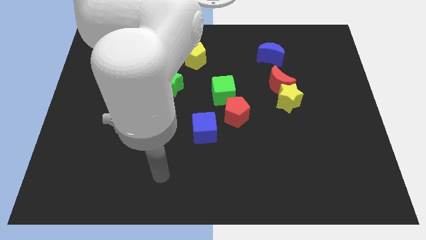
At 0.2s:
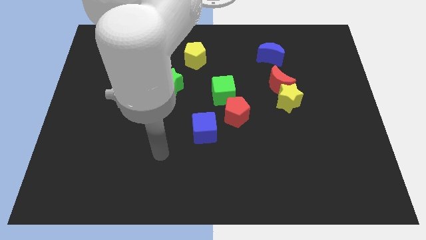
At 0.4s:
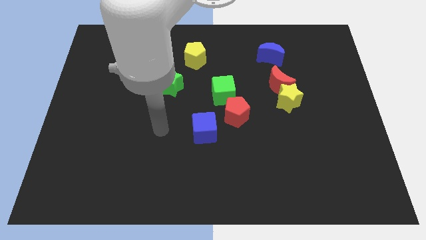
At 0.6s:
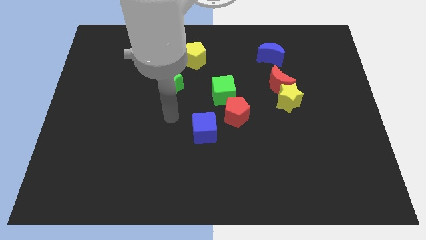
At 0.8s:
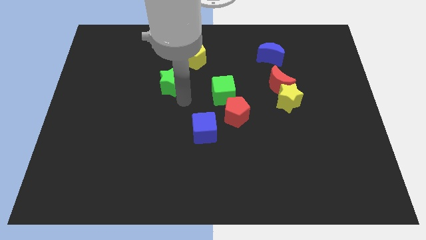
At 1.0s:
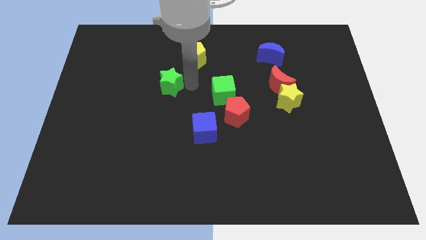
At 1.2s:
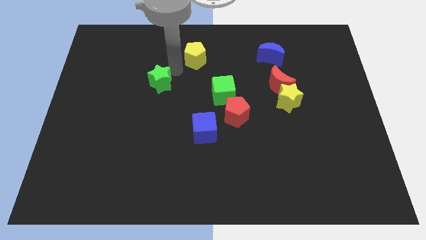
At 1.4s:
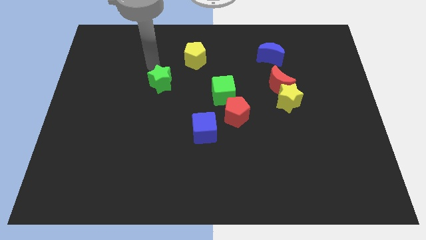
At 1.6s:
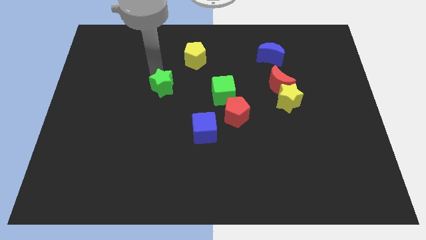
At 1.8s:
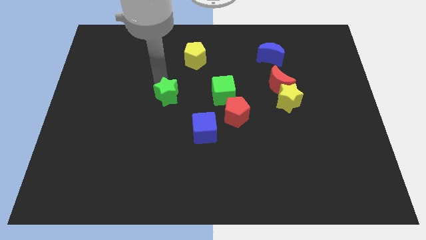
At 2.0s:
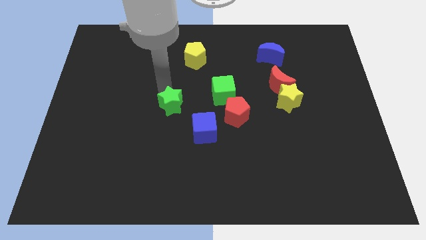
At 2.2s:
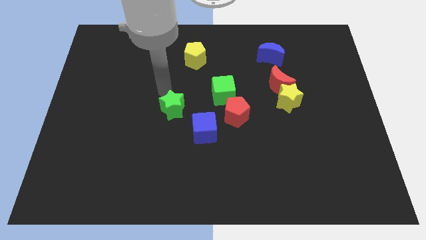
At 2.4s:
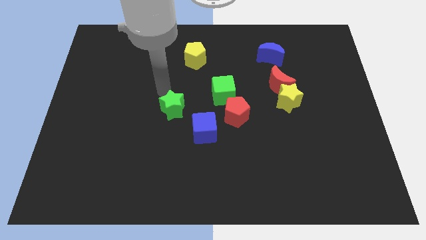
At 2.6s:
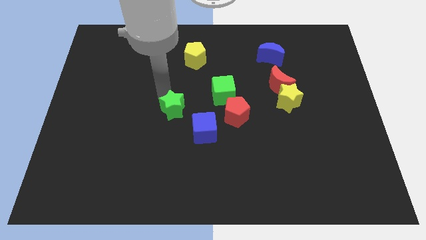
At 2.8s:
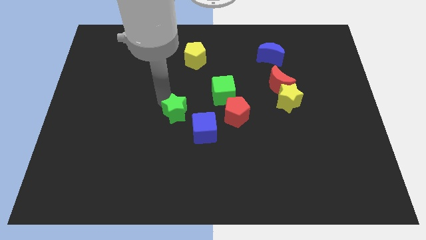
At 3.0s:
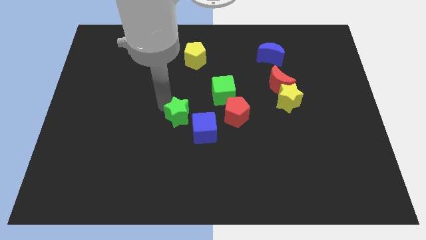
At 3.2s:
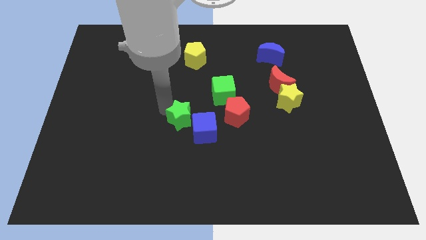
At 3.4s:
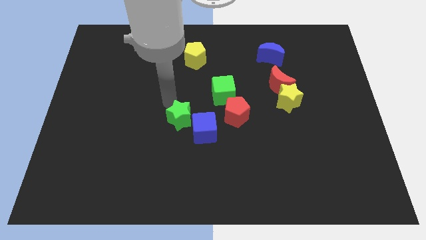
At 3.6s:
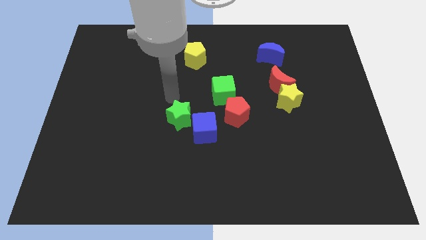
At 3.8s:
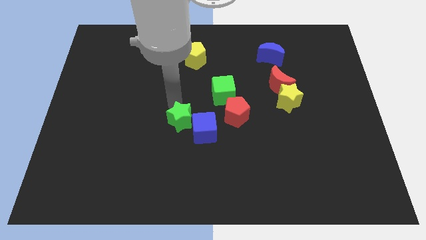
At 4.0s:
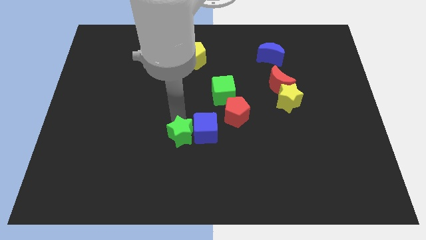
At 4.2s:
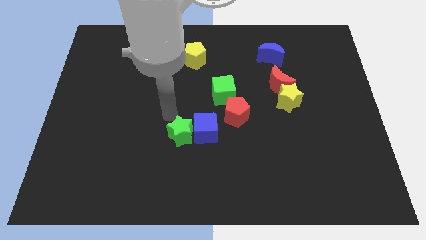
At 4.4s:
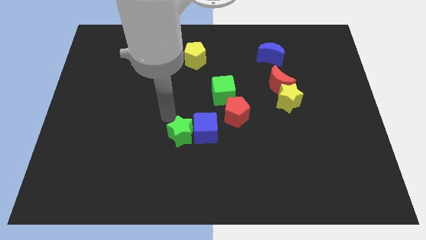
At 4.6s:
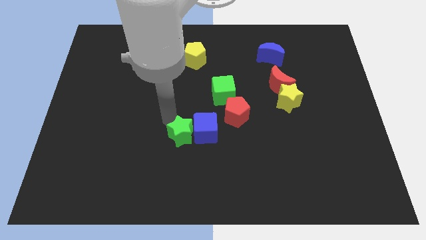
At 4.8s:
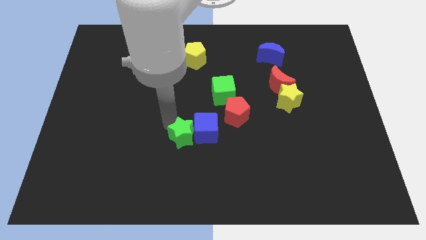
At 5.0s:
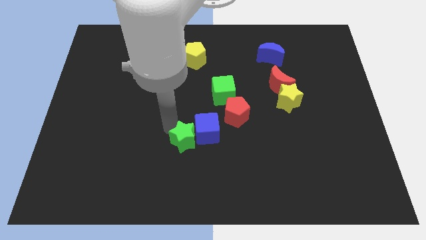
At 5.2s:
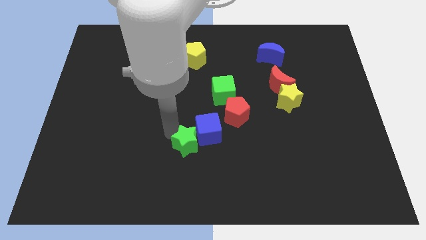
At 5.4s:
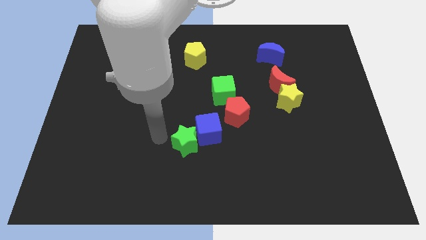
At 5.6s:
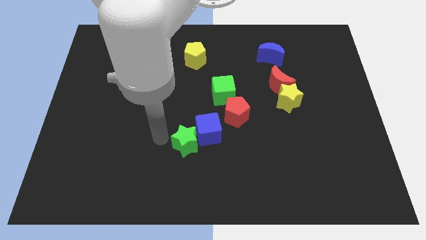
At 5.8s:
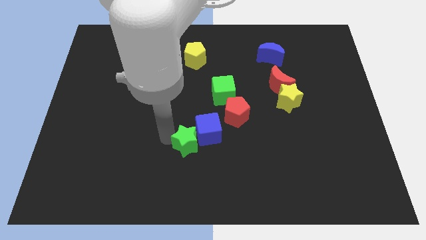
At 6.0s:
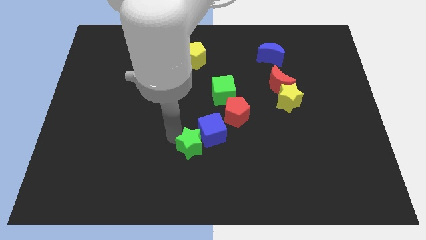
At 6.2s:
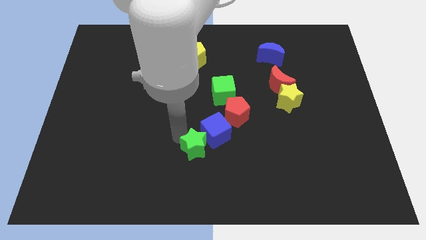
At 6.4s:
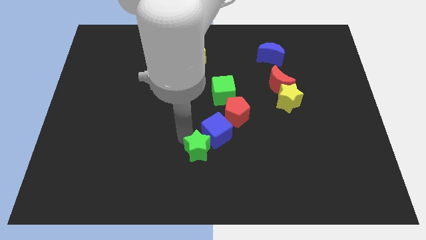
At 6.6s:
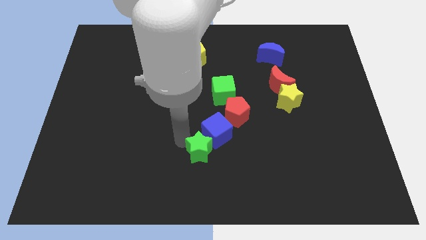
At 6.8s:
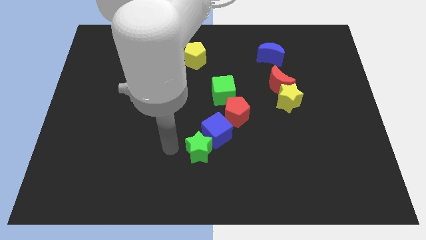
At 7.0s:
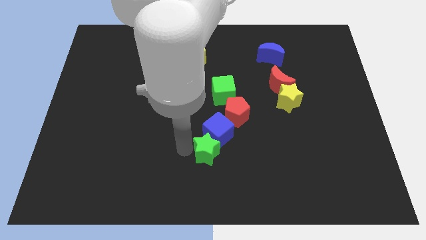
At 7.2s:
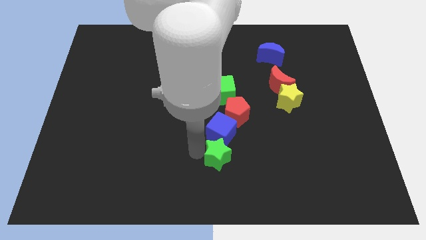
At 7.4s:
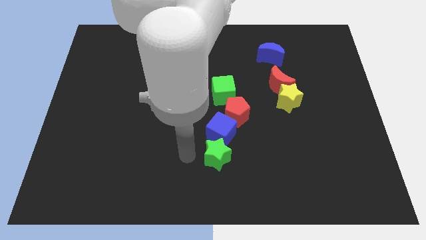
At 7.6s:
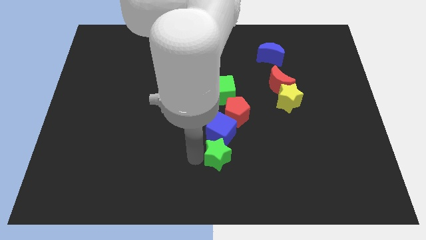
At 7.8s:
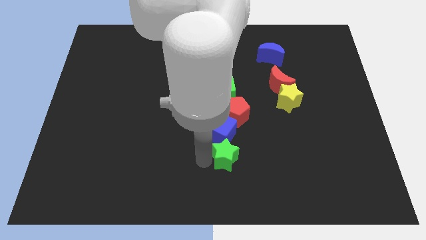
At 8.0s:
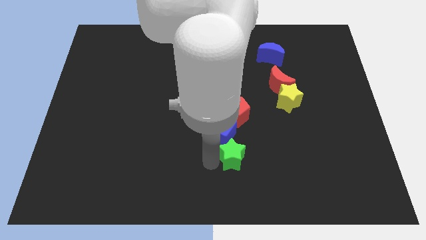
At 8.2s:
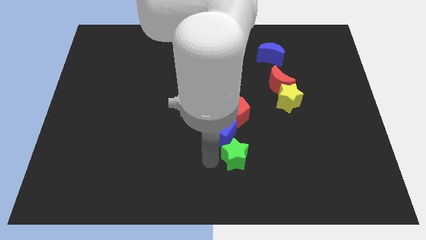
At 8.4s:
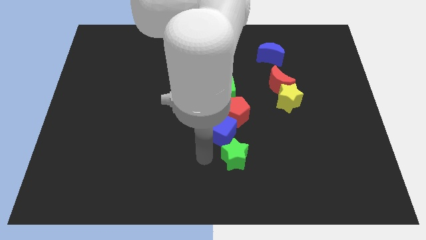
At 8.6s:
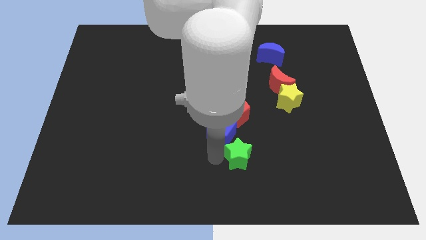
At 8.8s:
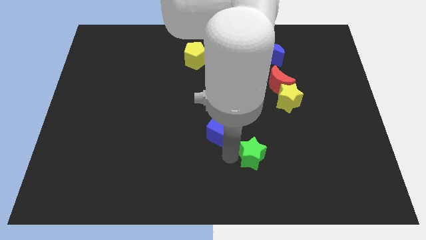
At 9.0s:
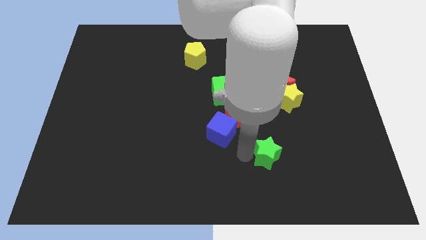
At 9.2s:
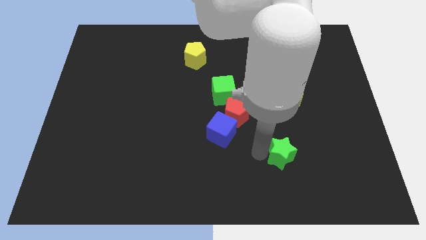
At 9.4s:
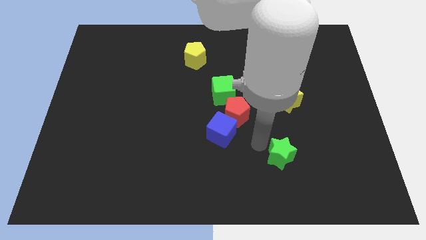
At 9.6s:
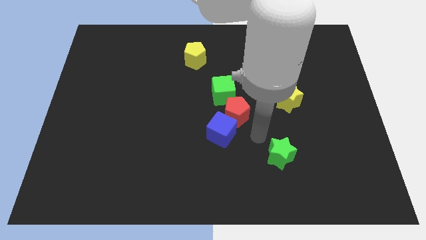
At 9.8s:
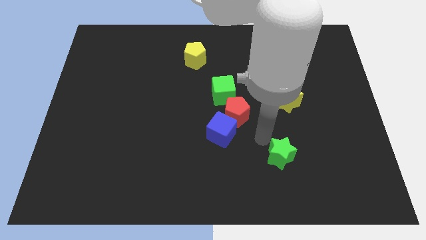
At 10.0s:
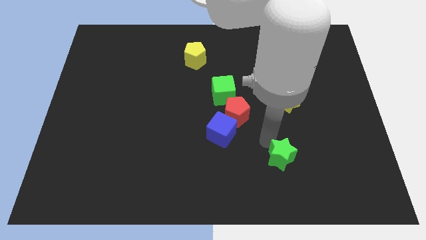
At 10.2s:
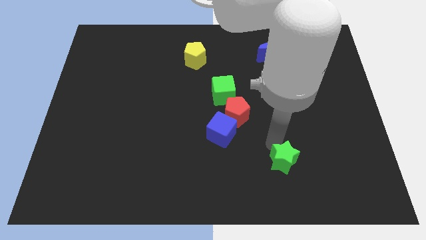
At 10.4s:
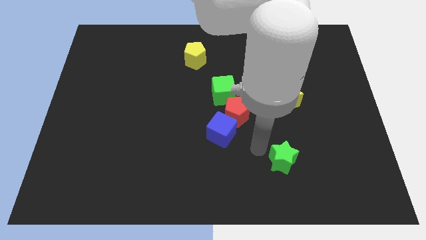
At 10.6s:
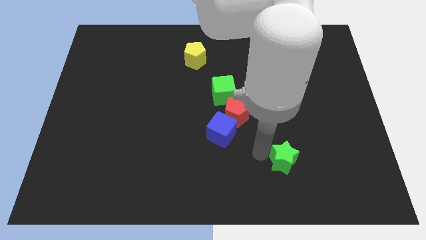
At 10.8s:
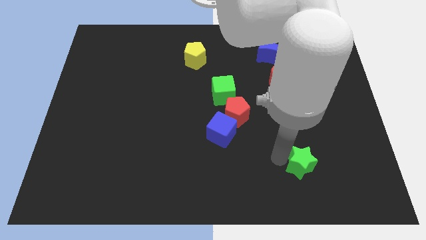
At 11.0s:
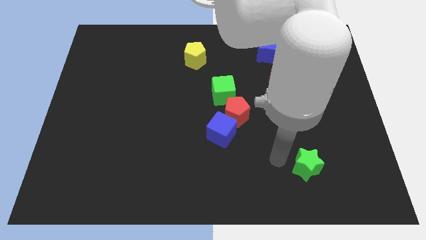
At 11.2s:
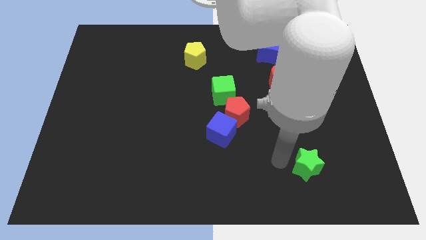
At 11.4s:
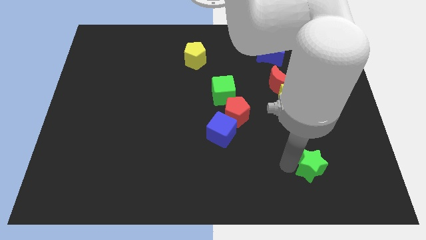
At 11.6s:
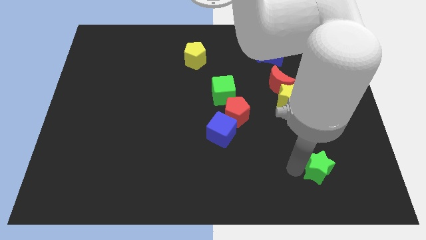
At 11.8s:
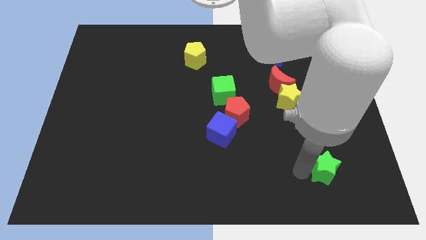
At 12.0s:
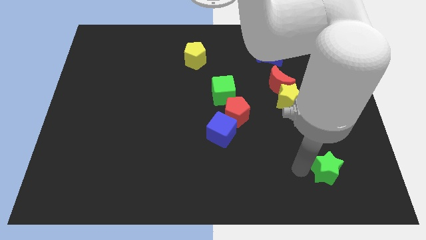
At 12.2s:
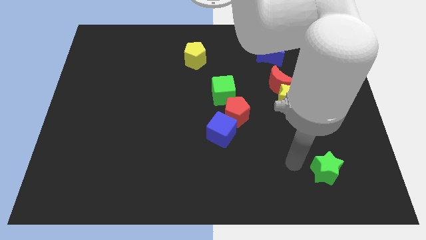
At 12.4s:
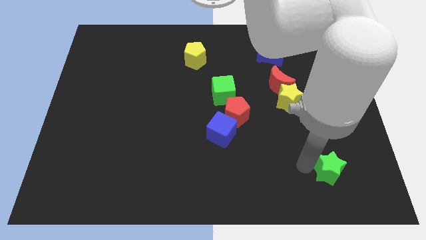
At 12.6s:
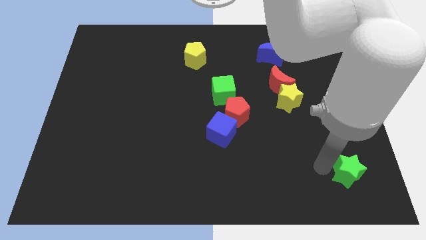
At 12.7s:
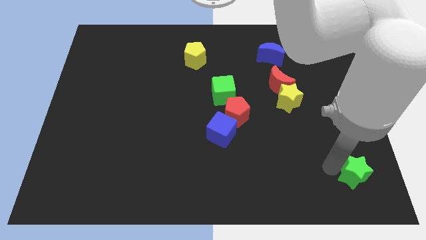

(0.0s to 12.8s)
push the green star to the bottom right corner
